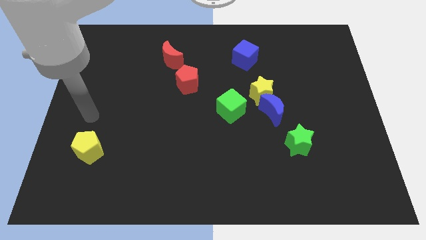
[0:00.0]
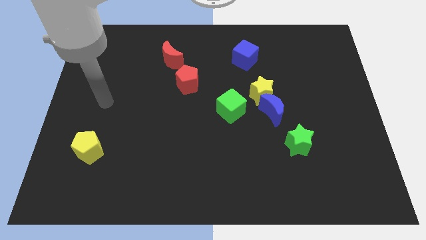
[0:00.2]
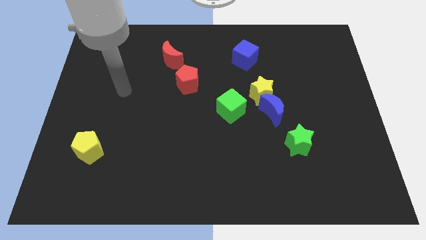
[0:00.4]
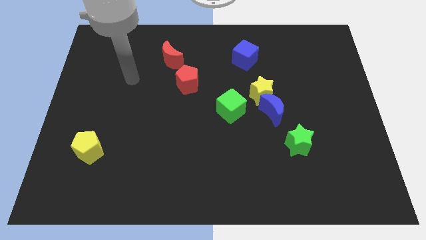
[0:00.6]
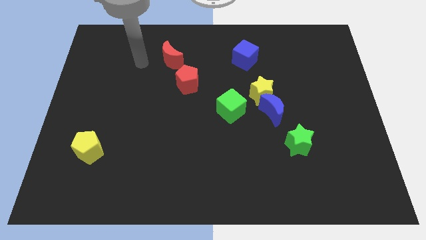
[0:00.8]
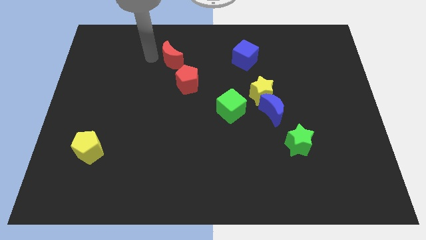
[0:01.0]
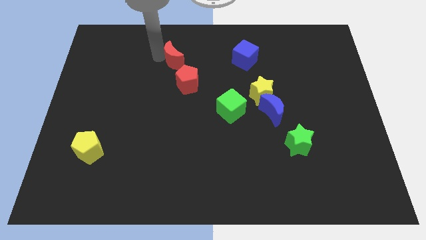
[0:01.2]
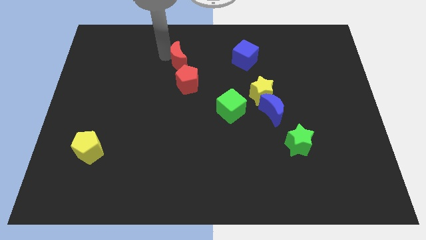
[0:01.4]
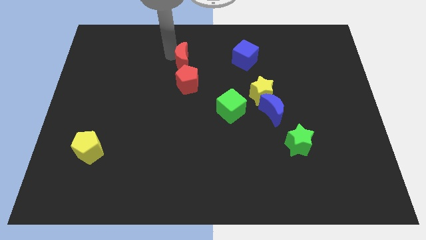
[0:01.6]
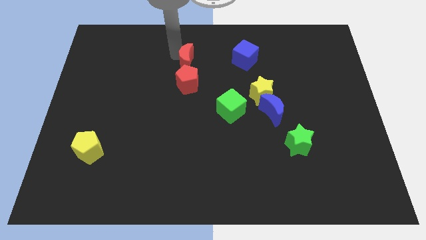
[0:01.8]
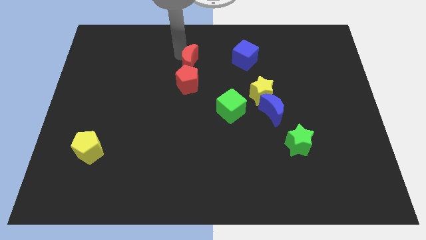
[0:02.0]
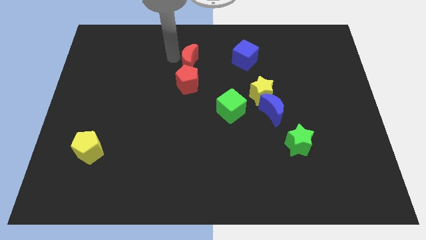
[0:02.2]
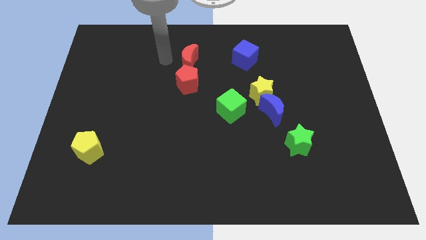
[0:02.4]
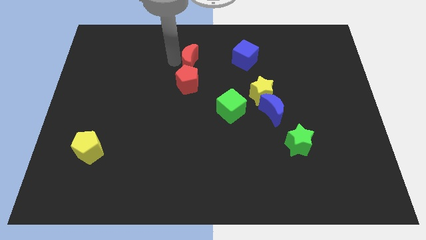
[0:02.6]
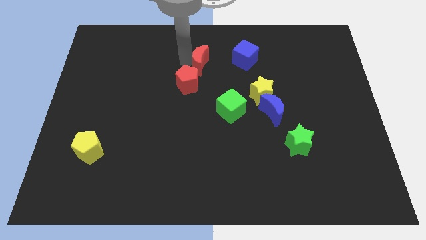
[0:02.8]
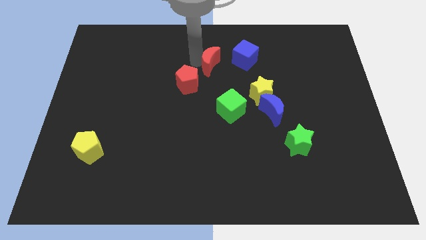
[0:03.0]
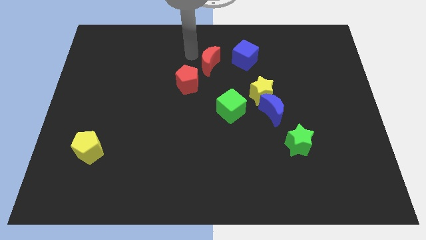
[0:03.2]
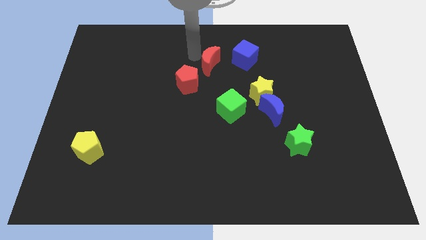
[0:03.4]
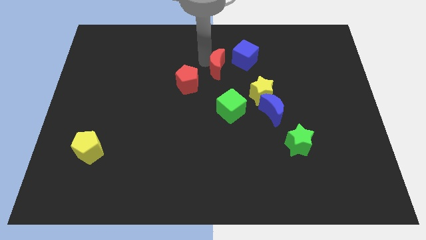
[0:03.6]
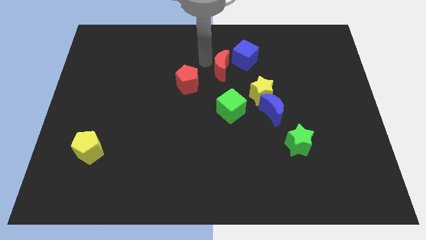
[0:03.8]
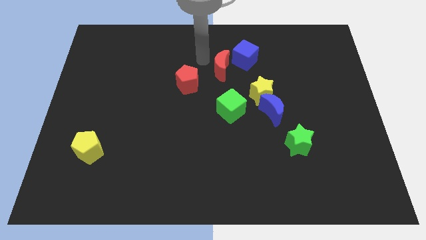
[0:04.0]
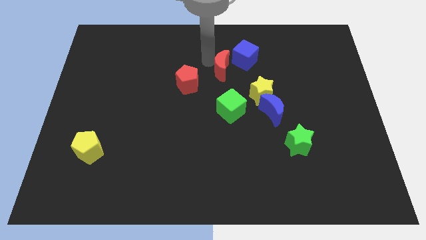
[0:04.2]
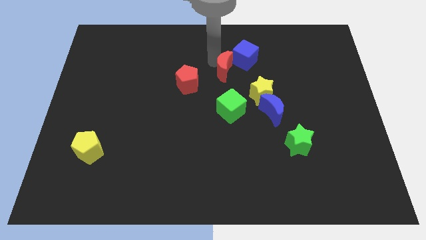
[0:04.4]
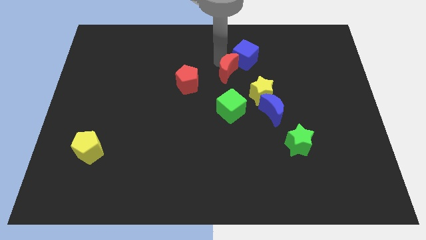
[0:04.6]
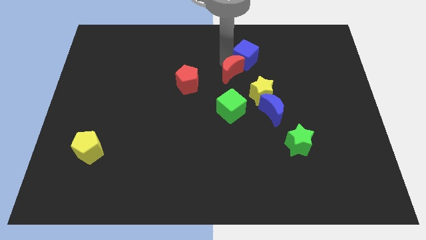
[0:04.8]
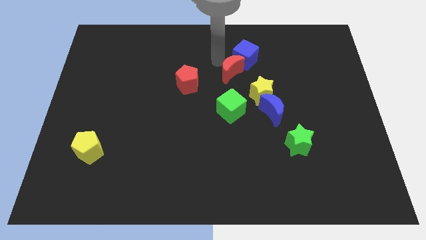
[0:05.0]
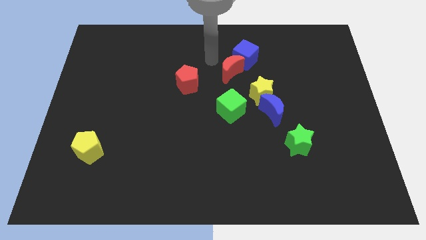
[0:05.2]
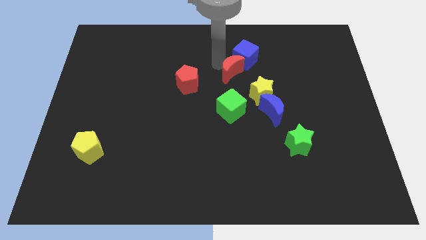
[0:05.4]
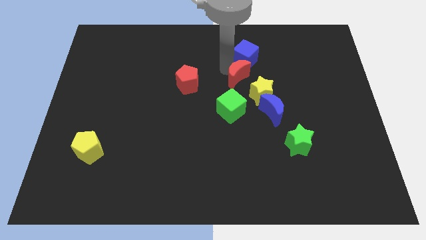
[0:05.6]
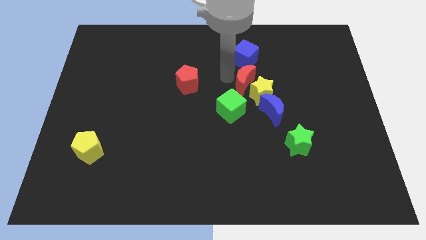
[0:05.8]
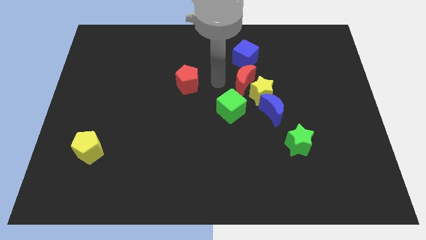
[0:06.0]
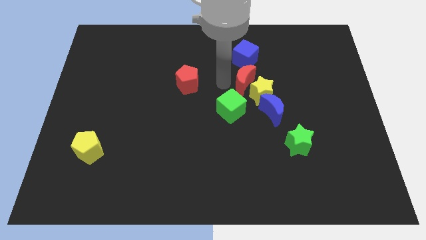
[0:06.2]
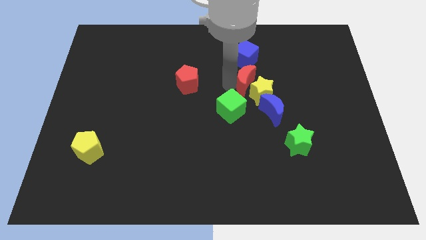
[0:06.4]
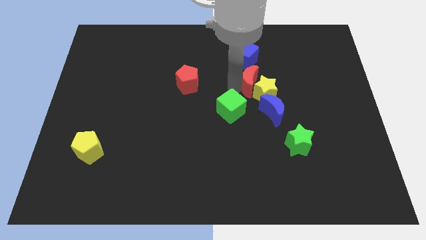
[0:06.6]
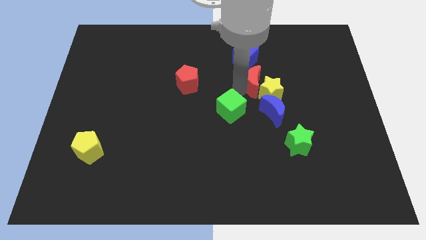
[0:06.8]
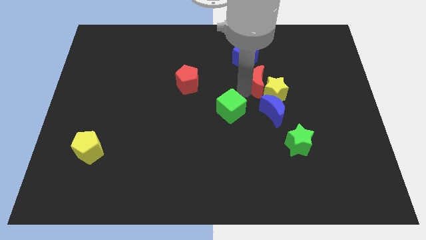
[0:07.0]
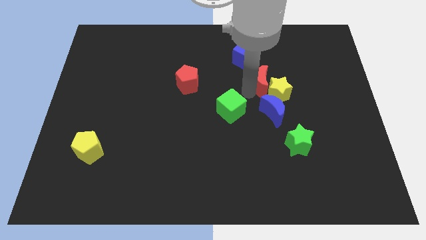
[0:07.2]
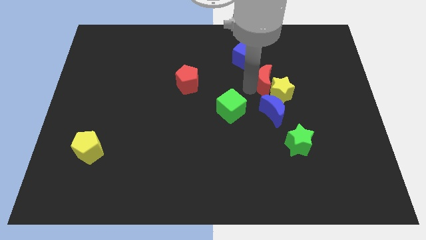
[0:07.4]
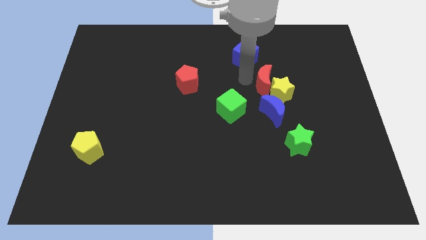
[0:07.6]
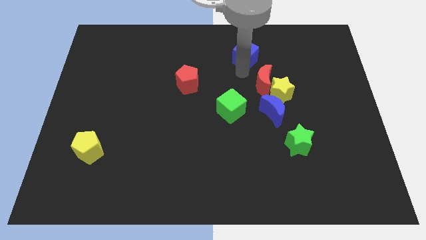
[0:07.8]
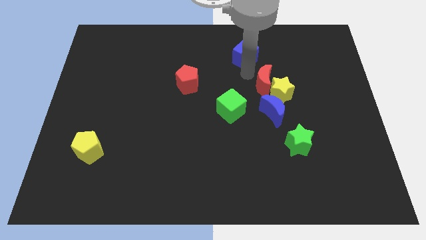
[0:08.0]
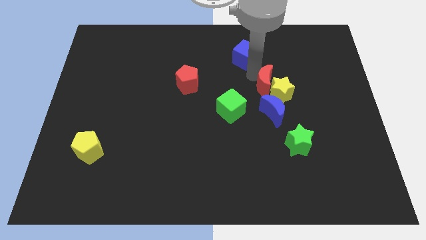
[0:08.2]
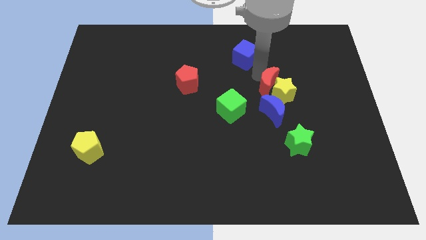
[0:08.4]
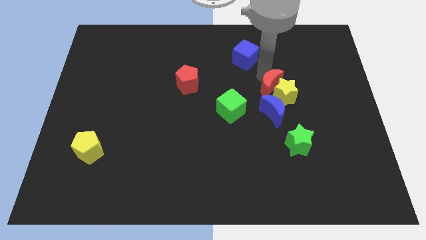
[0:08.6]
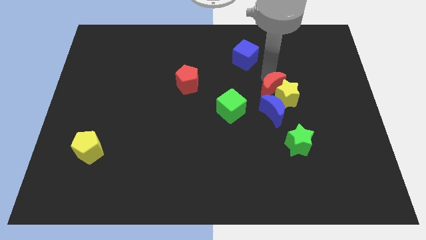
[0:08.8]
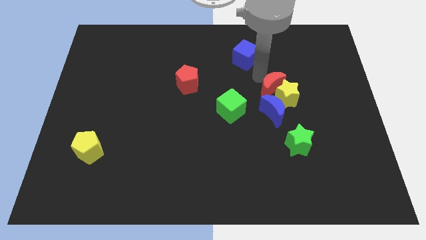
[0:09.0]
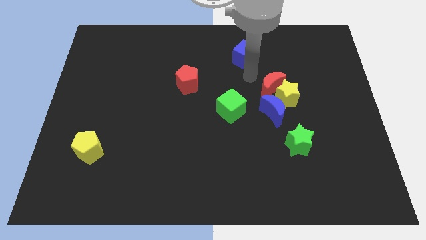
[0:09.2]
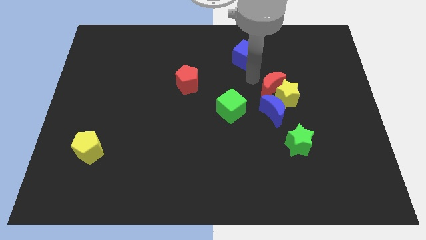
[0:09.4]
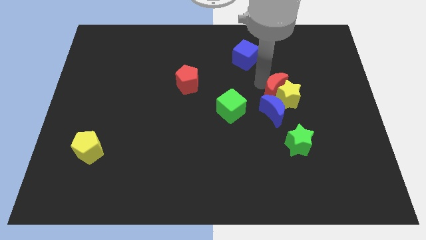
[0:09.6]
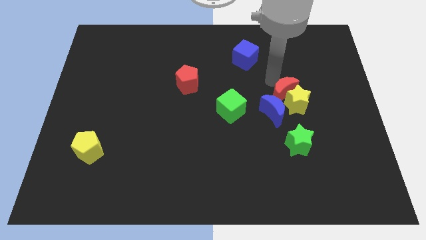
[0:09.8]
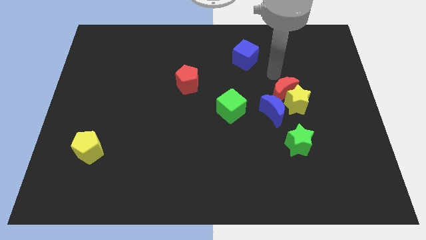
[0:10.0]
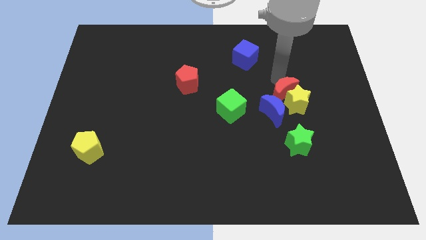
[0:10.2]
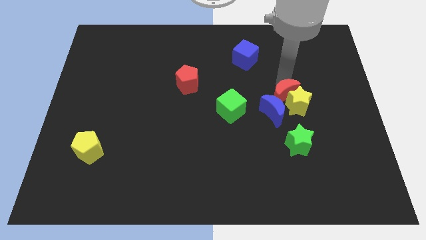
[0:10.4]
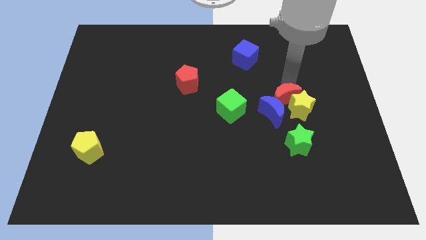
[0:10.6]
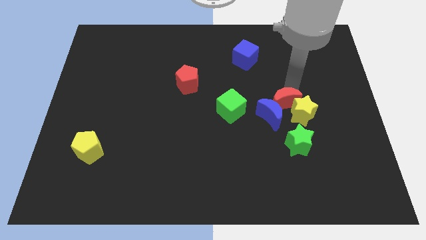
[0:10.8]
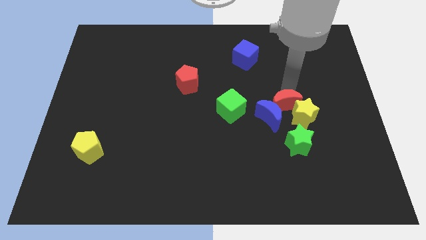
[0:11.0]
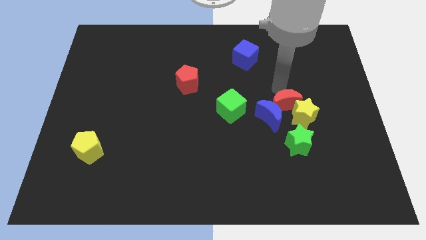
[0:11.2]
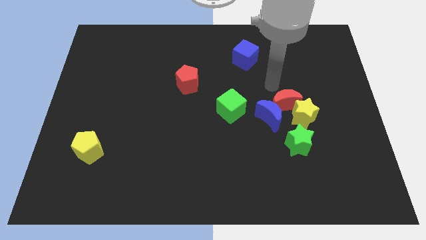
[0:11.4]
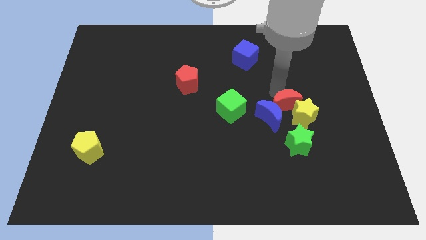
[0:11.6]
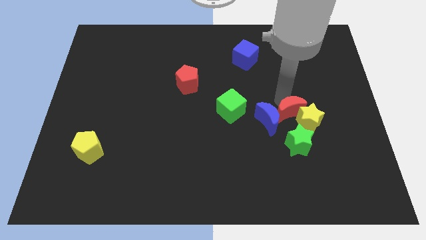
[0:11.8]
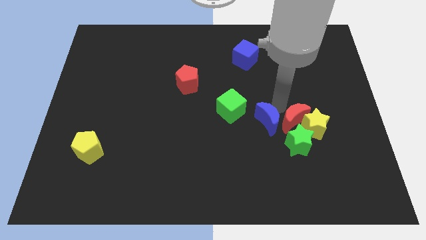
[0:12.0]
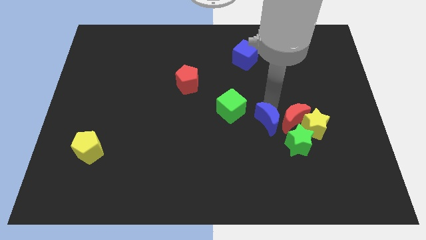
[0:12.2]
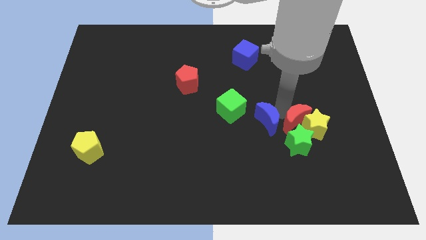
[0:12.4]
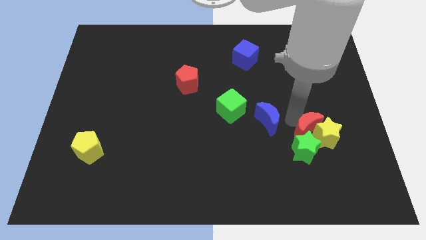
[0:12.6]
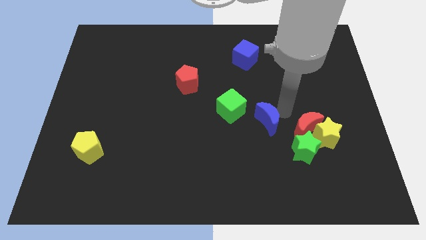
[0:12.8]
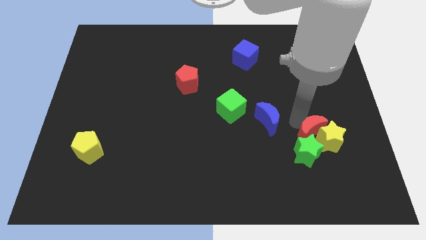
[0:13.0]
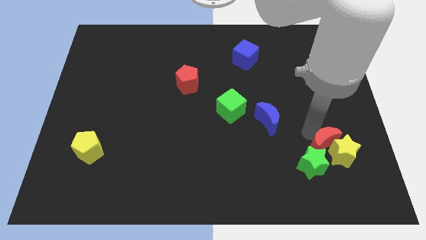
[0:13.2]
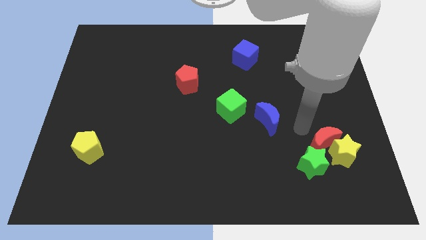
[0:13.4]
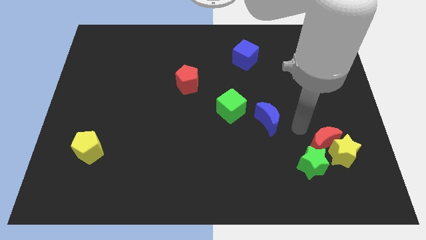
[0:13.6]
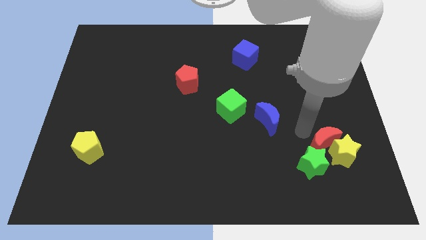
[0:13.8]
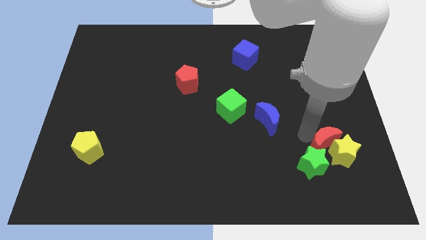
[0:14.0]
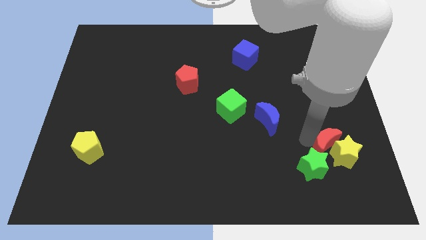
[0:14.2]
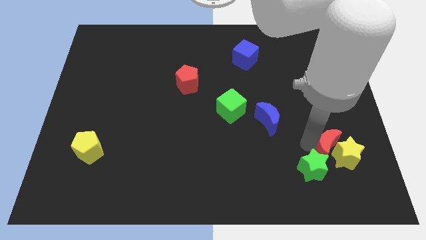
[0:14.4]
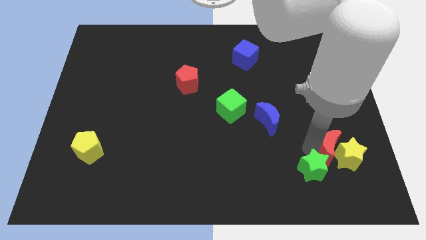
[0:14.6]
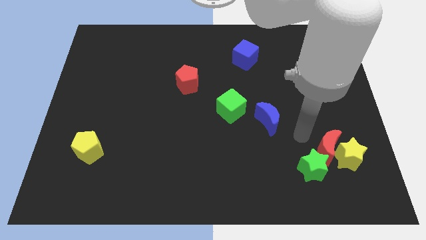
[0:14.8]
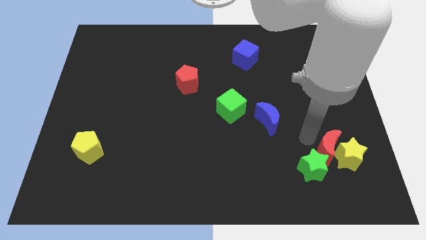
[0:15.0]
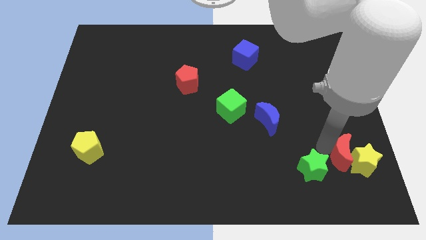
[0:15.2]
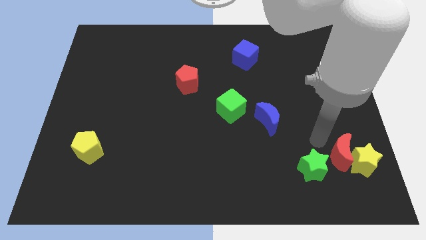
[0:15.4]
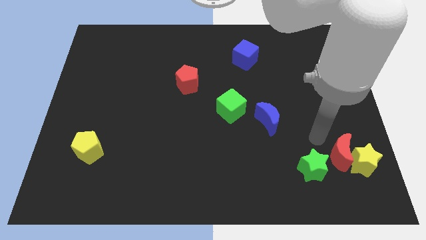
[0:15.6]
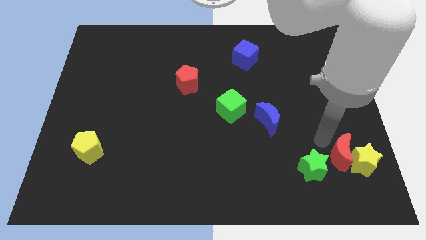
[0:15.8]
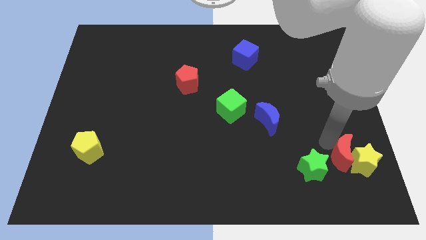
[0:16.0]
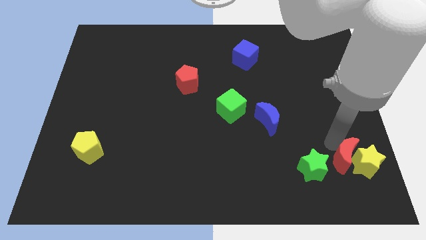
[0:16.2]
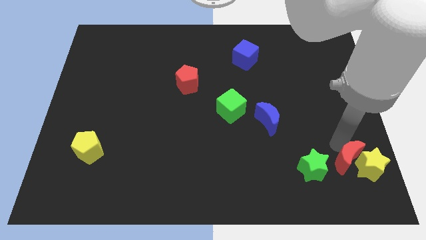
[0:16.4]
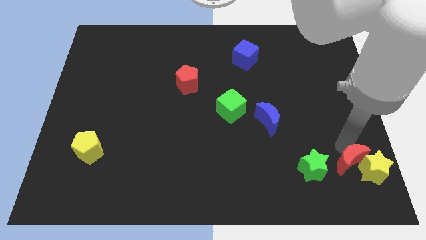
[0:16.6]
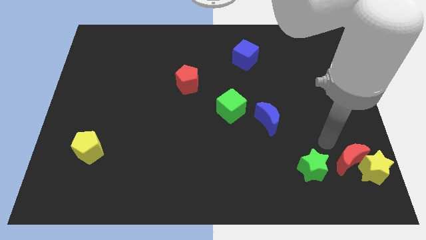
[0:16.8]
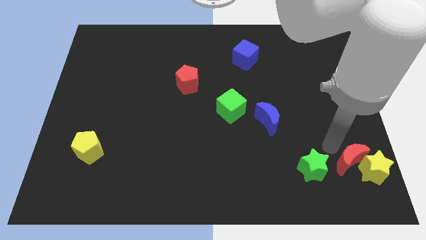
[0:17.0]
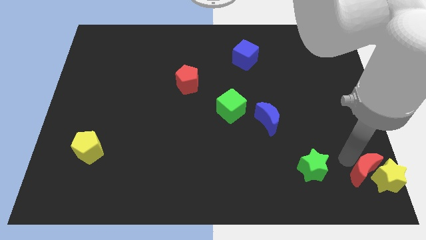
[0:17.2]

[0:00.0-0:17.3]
move the red moon to the lower right corner
